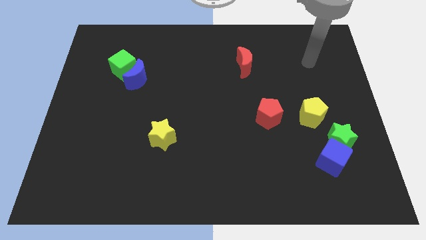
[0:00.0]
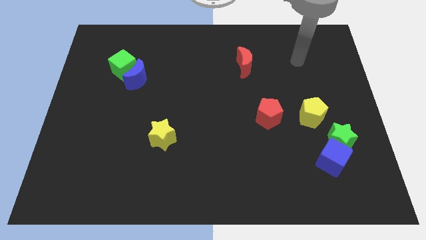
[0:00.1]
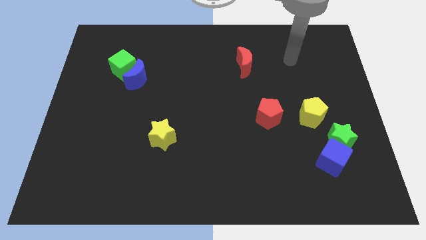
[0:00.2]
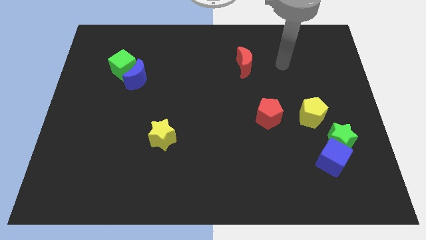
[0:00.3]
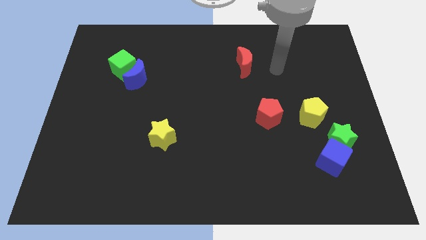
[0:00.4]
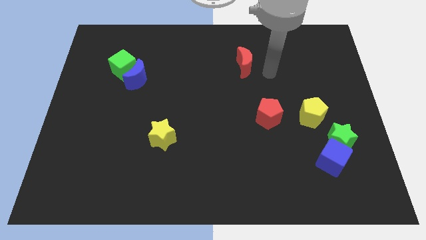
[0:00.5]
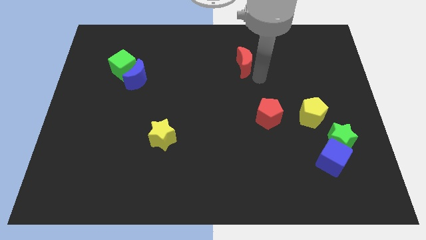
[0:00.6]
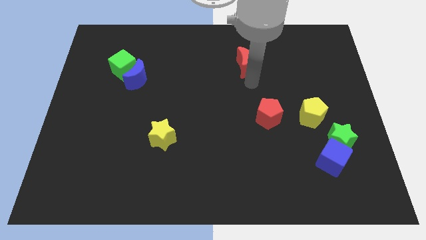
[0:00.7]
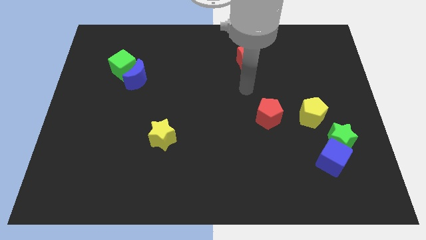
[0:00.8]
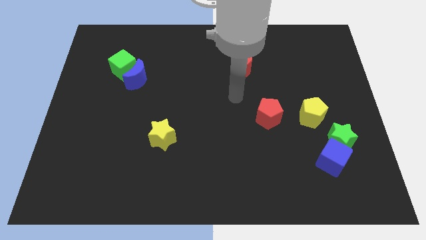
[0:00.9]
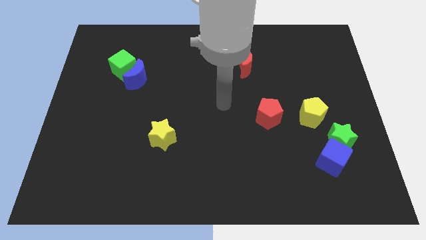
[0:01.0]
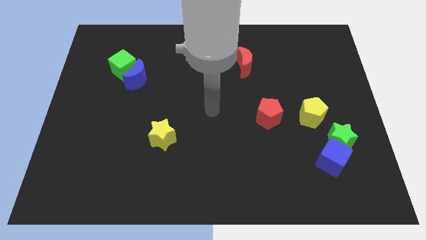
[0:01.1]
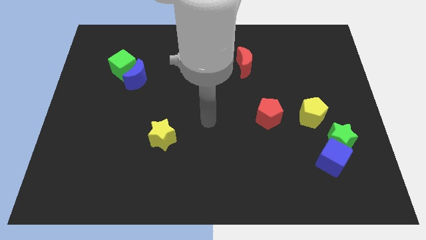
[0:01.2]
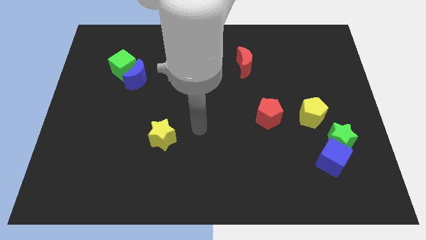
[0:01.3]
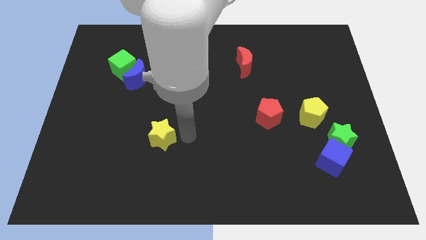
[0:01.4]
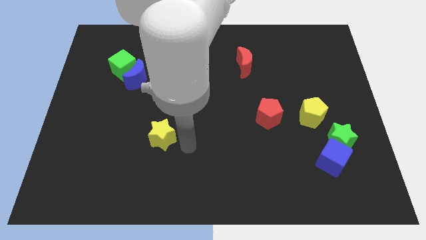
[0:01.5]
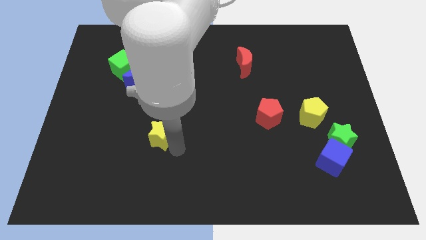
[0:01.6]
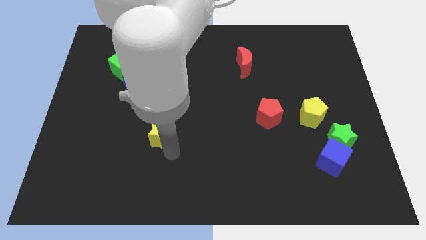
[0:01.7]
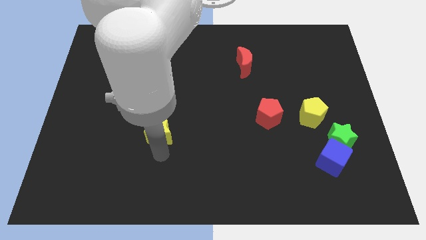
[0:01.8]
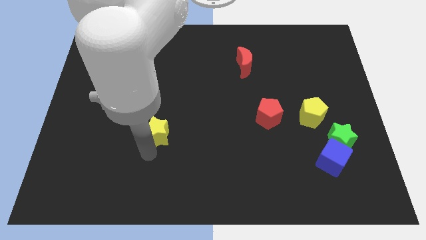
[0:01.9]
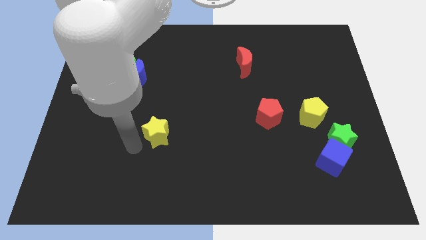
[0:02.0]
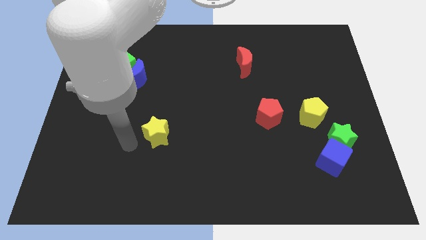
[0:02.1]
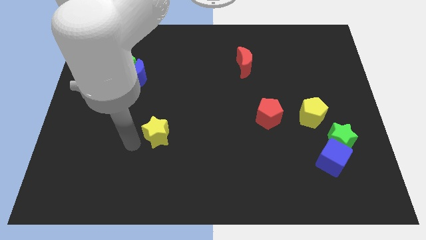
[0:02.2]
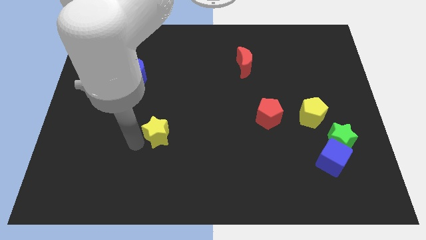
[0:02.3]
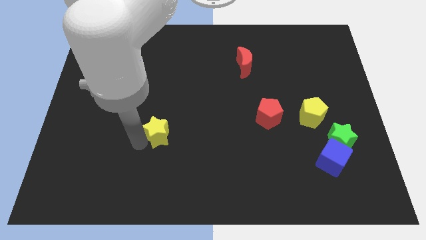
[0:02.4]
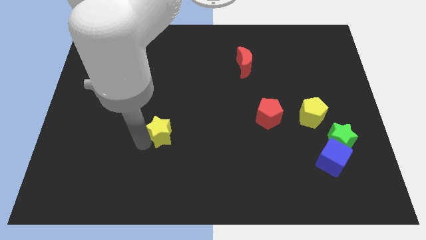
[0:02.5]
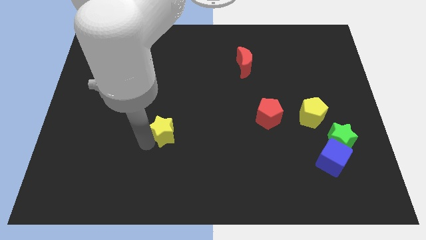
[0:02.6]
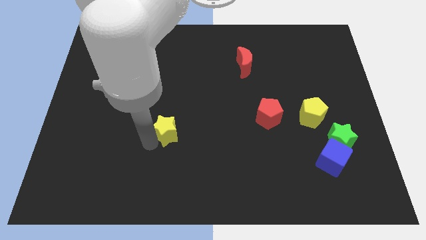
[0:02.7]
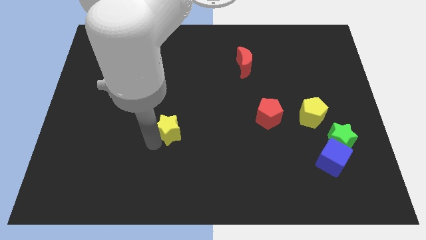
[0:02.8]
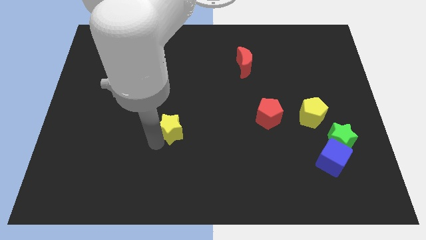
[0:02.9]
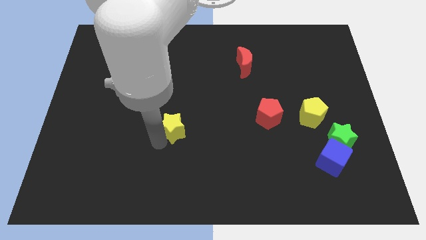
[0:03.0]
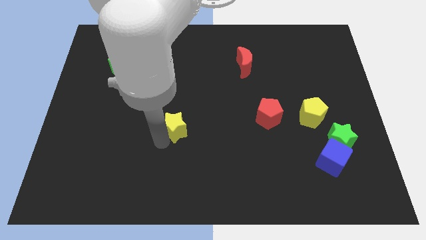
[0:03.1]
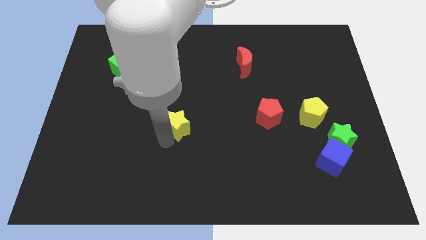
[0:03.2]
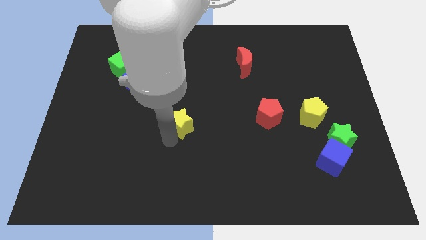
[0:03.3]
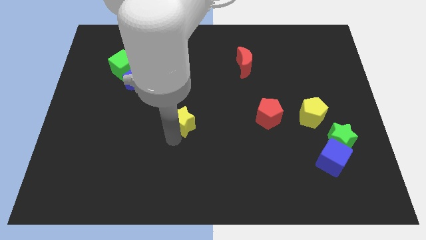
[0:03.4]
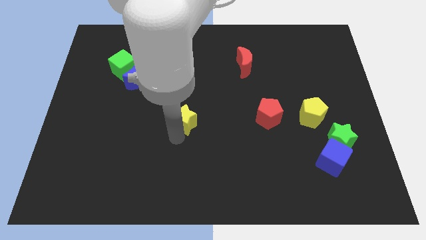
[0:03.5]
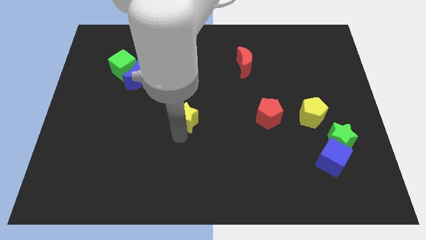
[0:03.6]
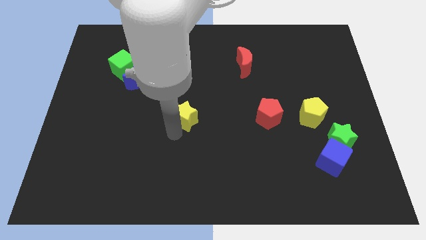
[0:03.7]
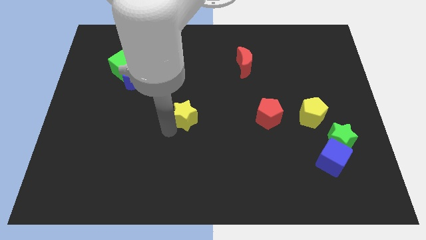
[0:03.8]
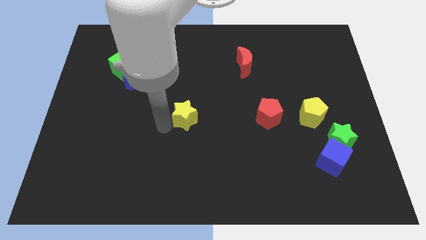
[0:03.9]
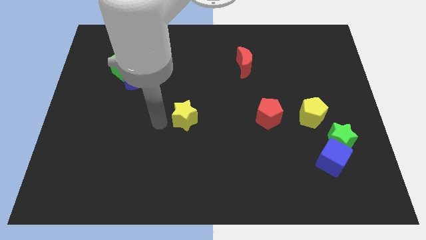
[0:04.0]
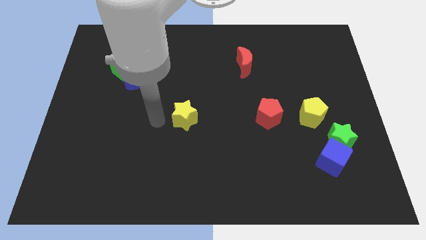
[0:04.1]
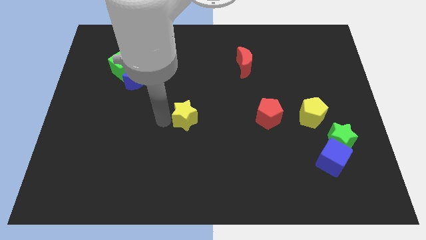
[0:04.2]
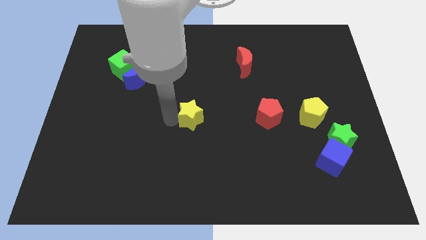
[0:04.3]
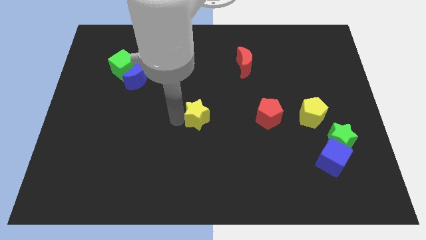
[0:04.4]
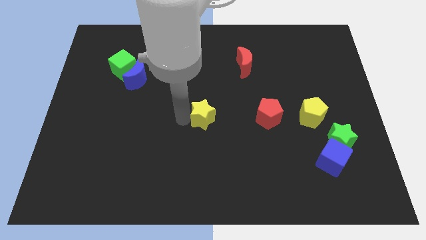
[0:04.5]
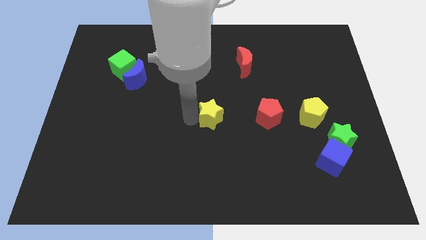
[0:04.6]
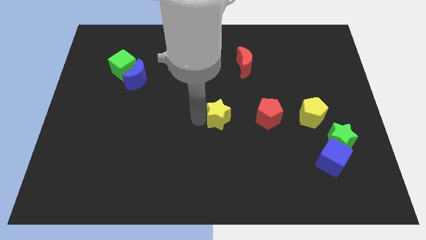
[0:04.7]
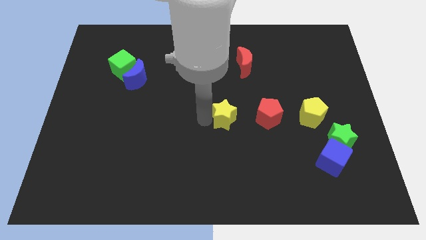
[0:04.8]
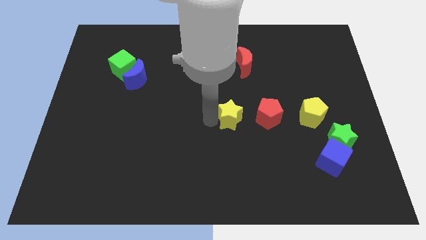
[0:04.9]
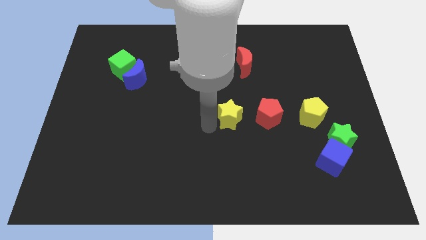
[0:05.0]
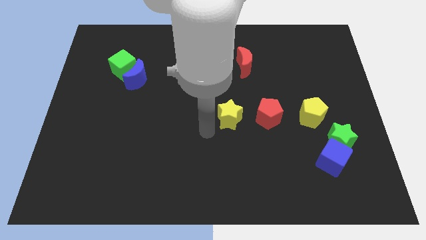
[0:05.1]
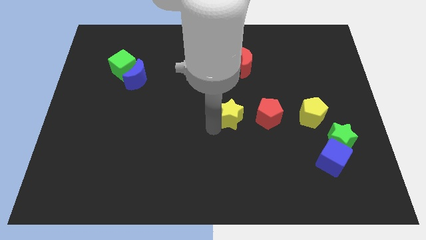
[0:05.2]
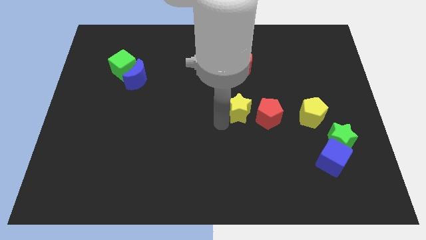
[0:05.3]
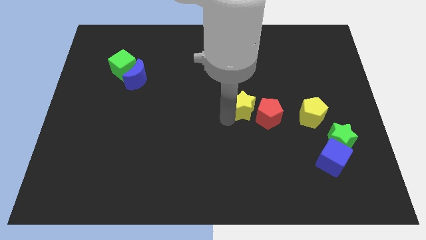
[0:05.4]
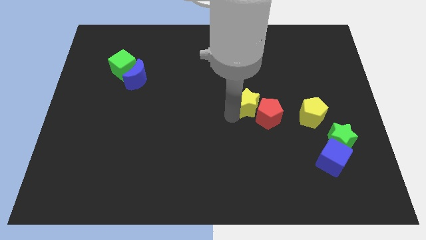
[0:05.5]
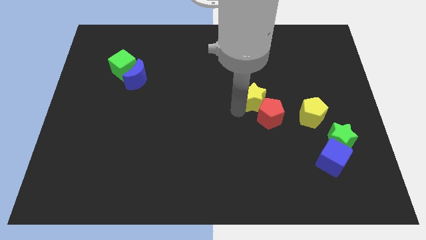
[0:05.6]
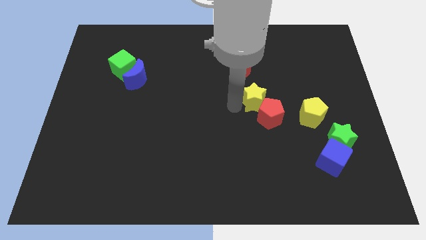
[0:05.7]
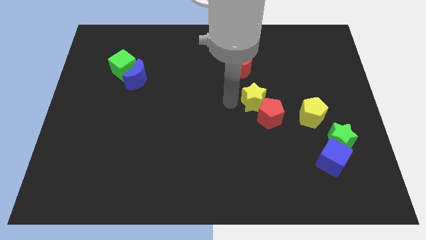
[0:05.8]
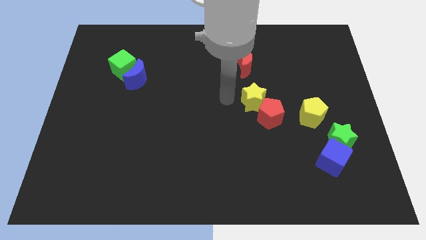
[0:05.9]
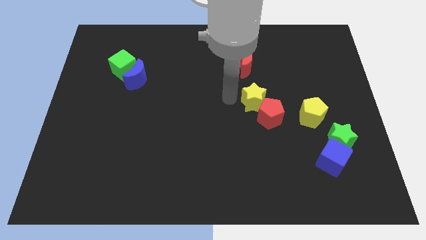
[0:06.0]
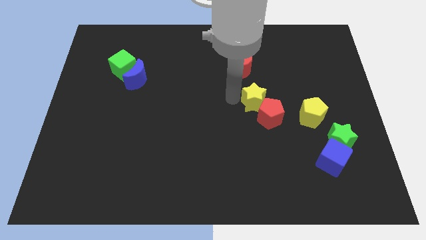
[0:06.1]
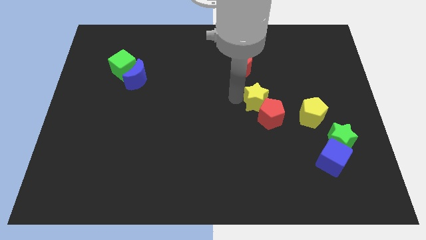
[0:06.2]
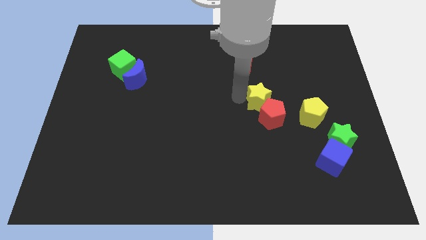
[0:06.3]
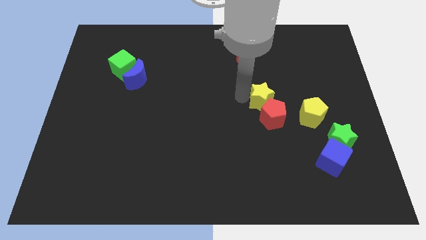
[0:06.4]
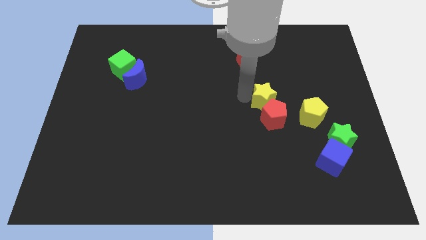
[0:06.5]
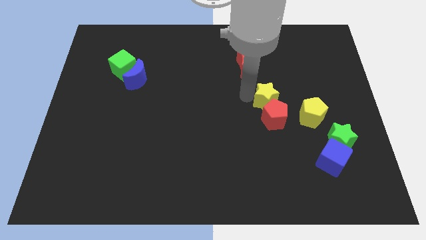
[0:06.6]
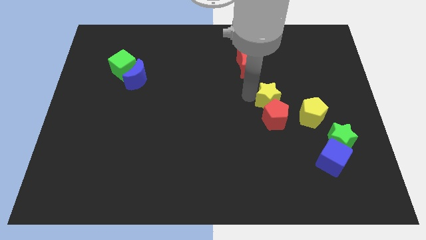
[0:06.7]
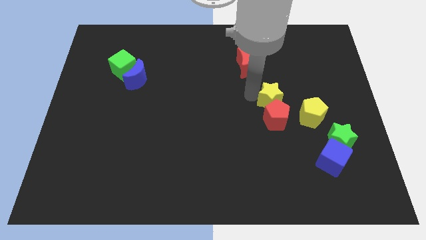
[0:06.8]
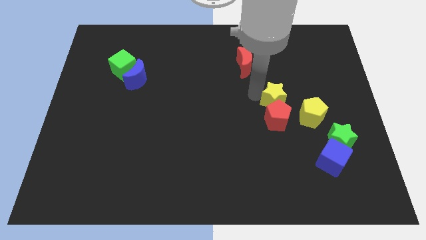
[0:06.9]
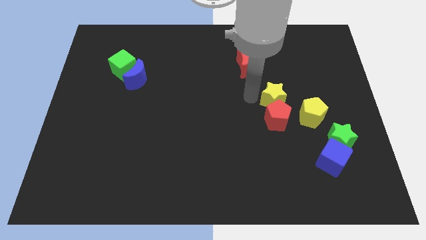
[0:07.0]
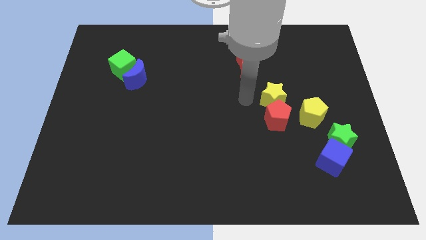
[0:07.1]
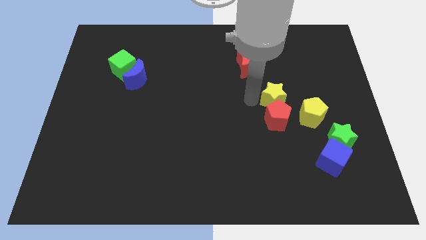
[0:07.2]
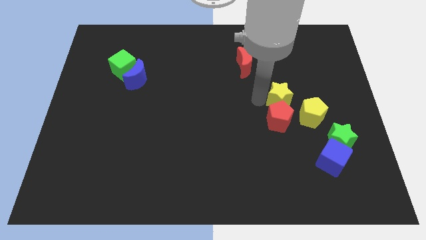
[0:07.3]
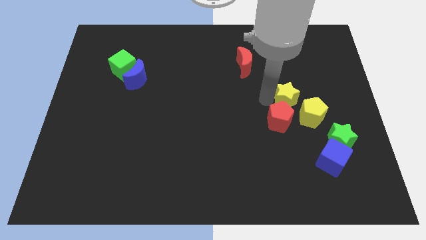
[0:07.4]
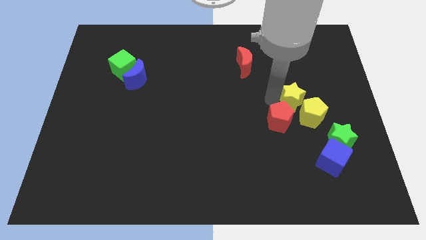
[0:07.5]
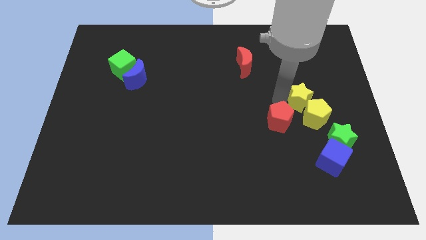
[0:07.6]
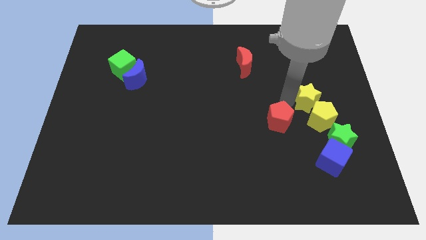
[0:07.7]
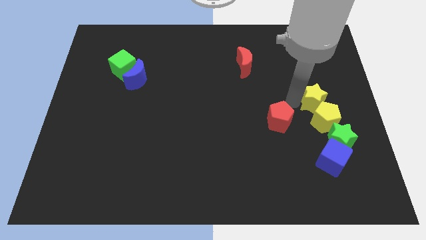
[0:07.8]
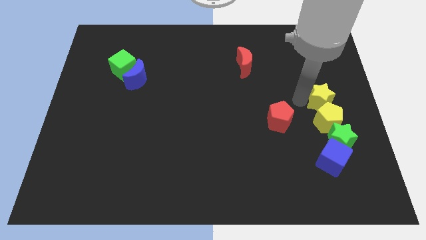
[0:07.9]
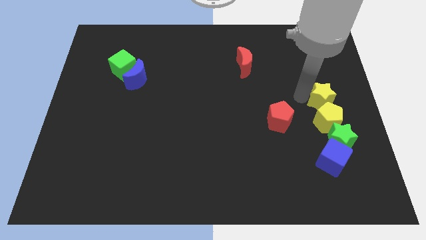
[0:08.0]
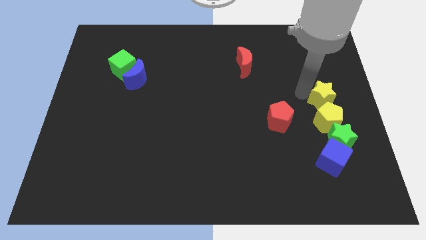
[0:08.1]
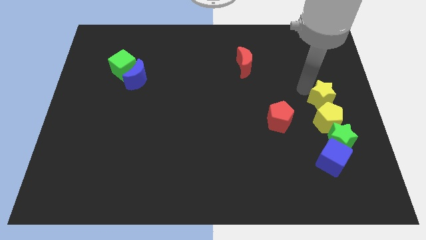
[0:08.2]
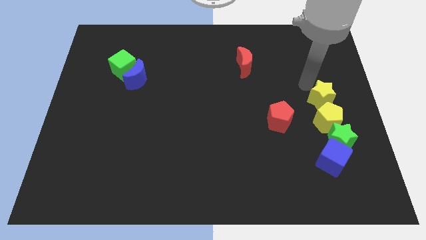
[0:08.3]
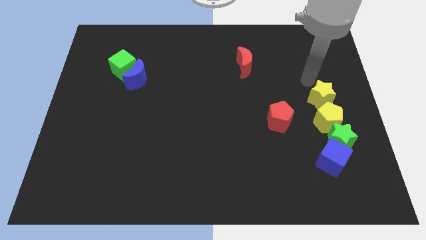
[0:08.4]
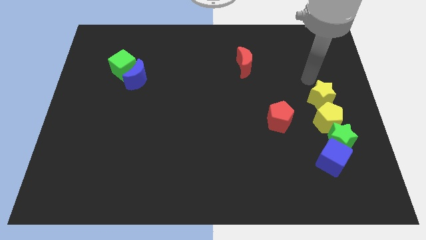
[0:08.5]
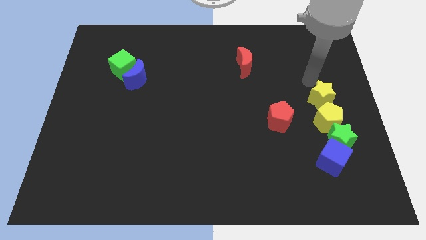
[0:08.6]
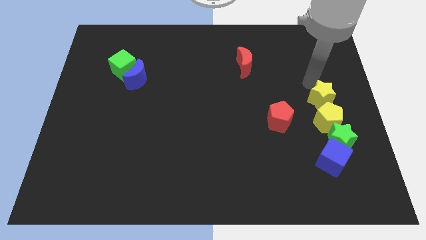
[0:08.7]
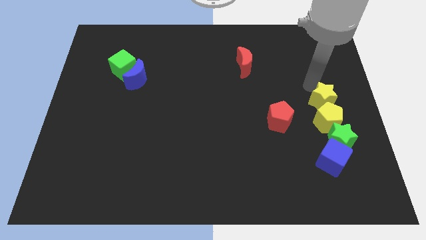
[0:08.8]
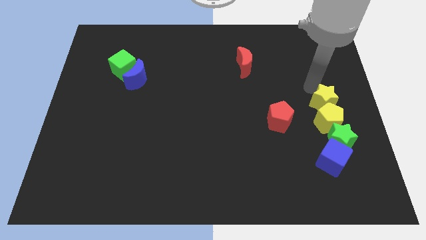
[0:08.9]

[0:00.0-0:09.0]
slide the yellow star just right of the red pentagon
